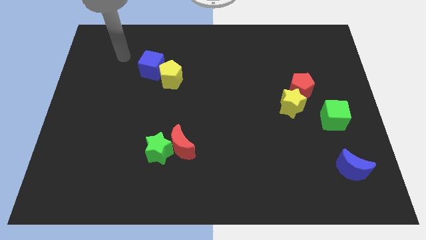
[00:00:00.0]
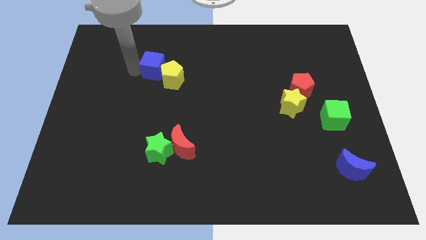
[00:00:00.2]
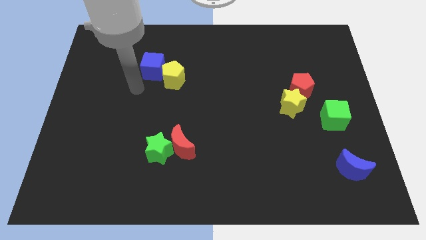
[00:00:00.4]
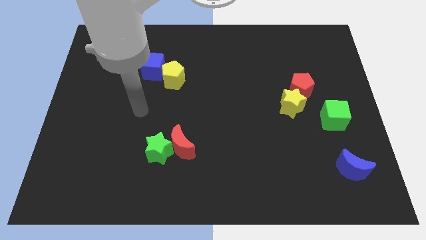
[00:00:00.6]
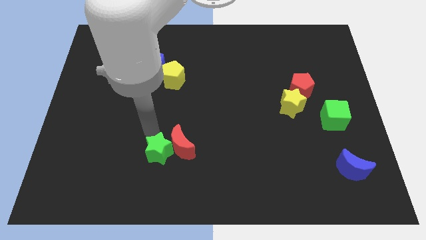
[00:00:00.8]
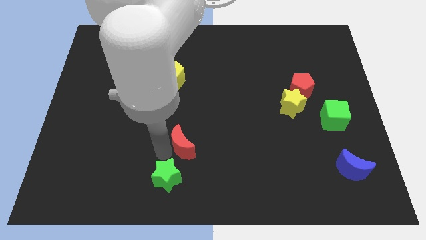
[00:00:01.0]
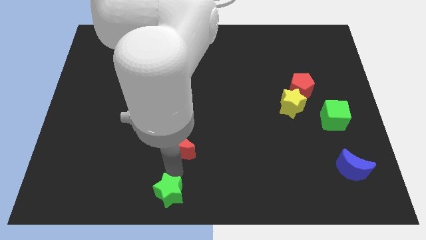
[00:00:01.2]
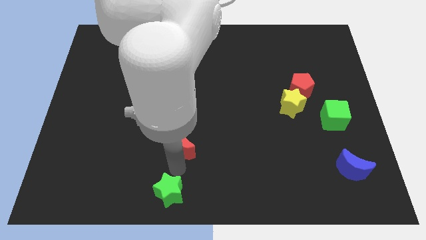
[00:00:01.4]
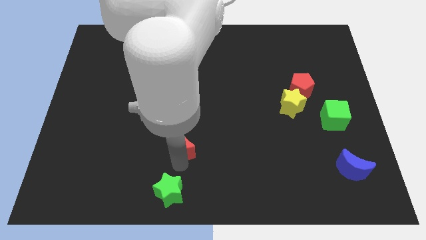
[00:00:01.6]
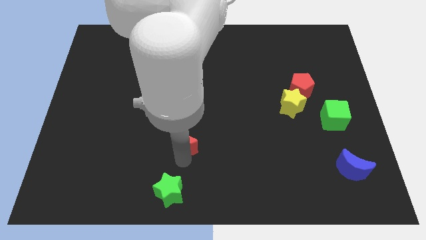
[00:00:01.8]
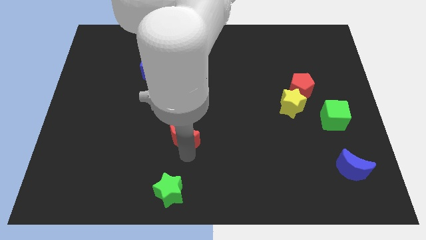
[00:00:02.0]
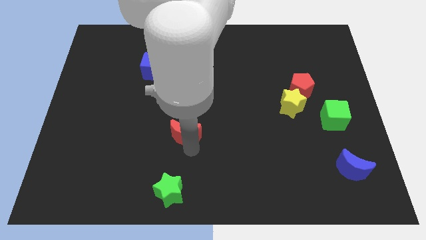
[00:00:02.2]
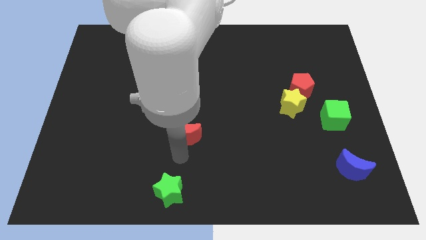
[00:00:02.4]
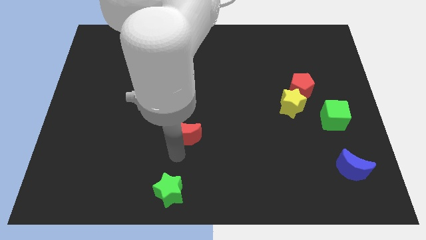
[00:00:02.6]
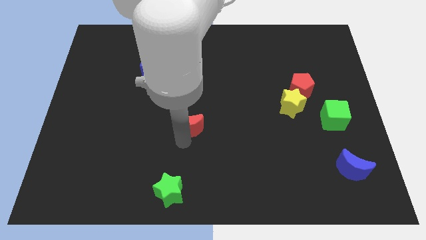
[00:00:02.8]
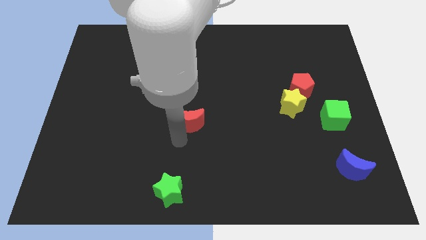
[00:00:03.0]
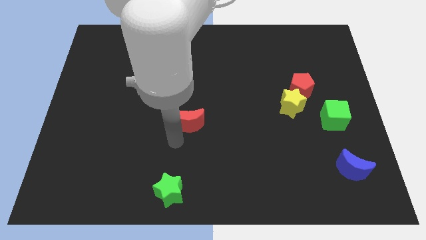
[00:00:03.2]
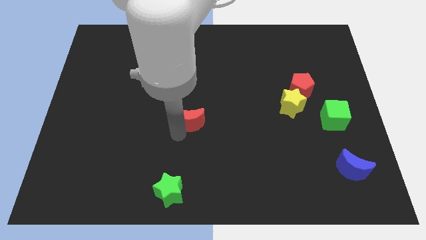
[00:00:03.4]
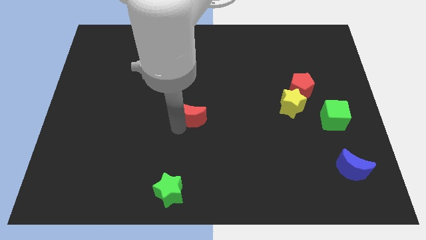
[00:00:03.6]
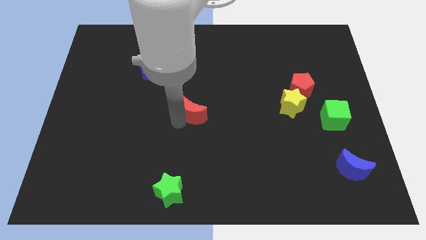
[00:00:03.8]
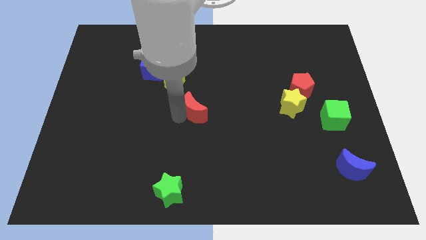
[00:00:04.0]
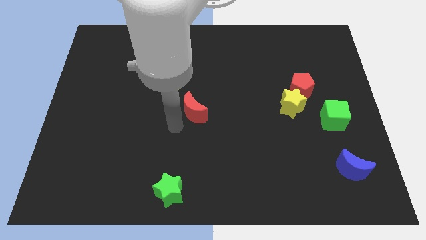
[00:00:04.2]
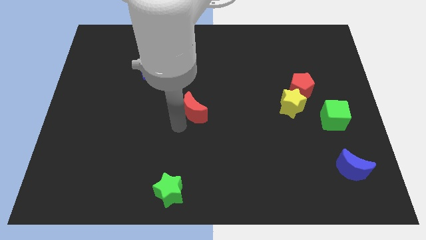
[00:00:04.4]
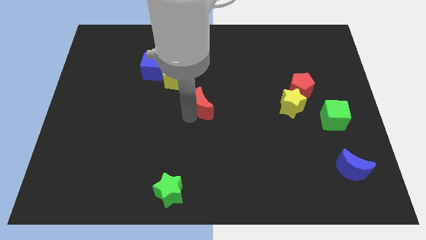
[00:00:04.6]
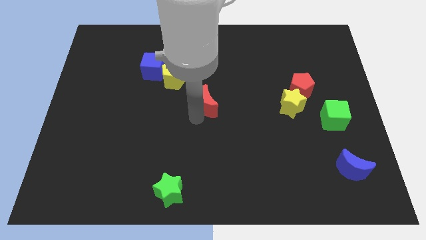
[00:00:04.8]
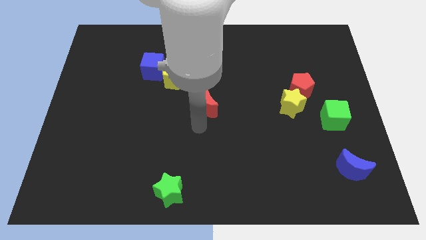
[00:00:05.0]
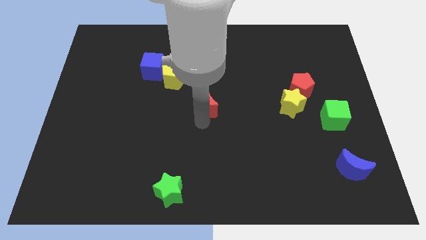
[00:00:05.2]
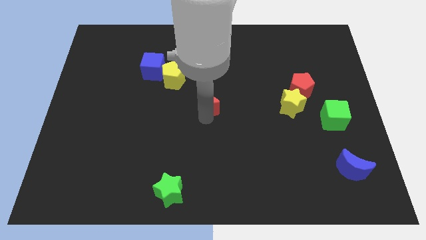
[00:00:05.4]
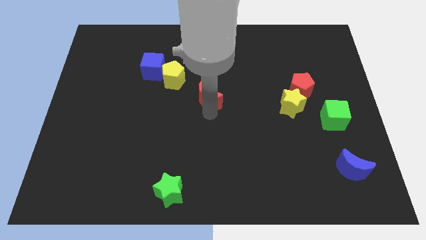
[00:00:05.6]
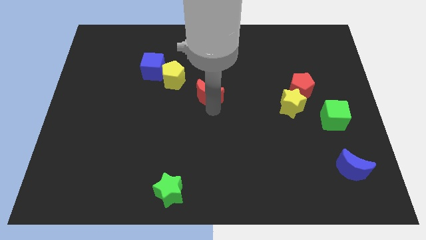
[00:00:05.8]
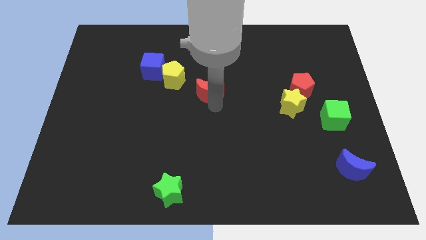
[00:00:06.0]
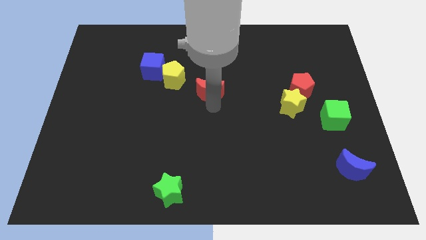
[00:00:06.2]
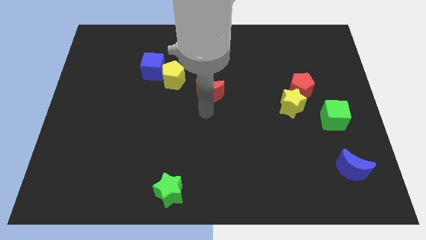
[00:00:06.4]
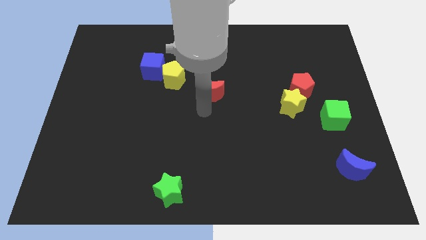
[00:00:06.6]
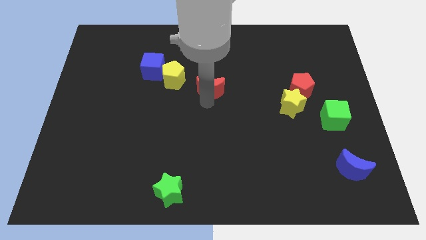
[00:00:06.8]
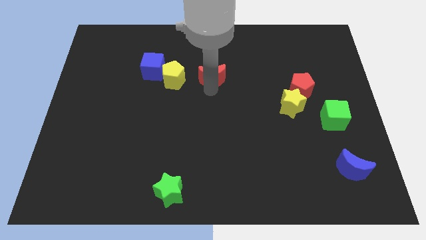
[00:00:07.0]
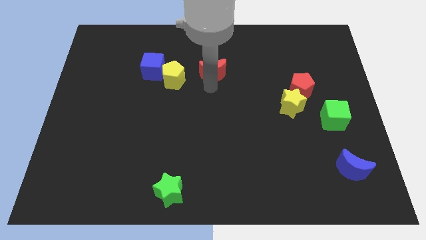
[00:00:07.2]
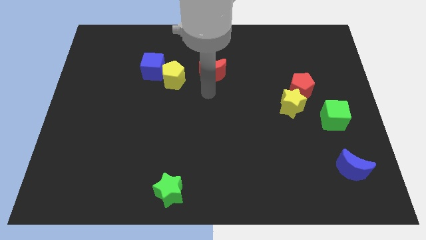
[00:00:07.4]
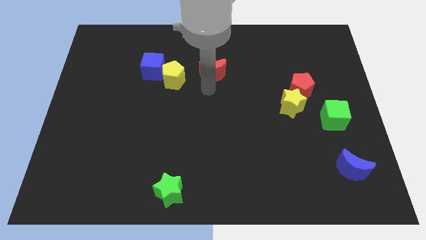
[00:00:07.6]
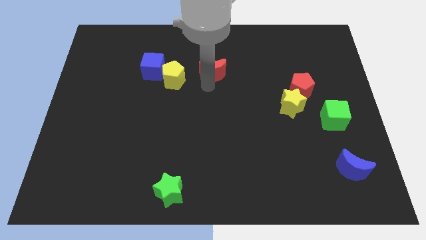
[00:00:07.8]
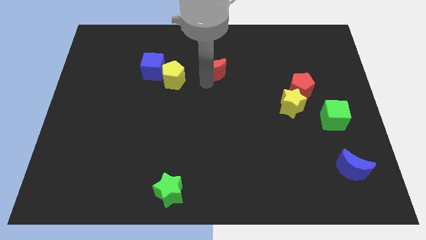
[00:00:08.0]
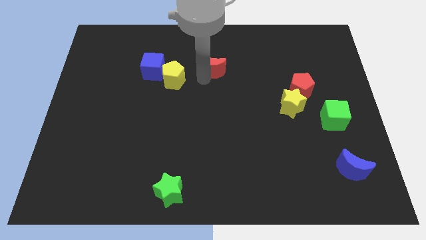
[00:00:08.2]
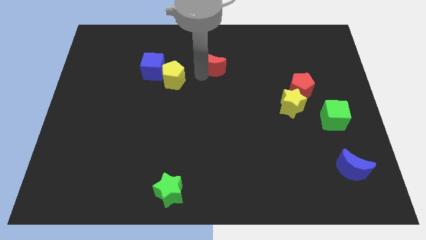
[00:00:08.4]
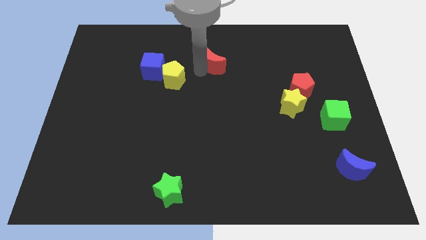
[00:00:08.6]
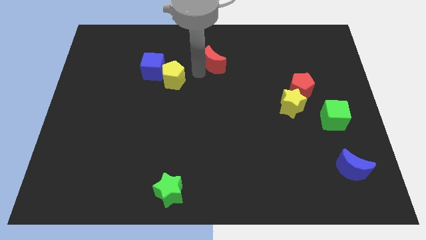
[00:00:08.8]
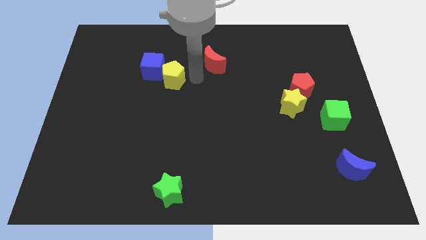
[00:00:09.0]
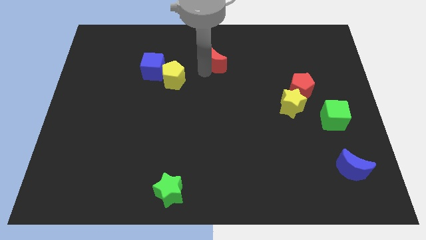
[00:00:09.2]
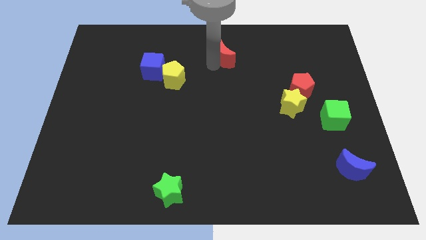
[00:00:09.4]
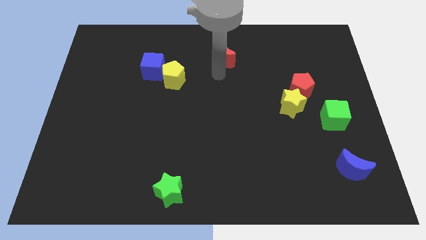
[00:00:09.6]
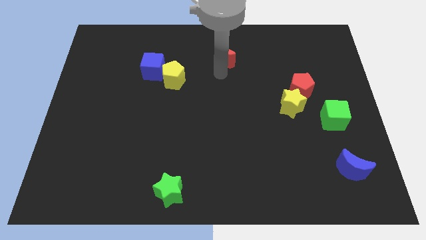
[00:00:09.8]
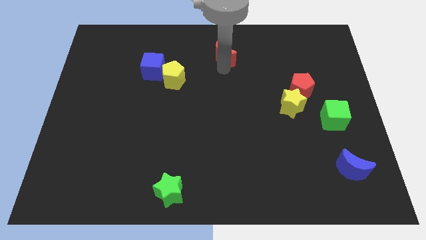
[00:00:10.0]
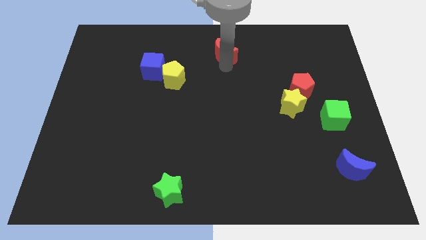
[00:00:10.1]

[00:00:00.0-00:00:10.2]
put the red moon to the top side

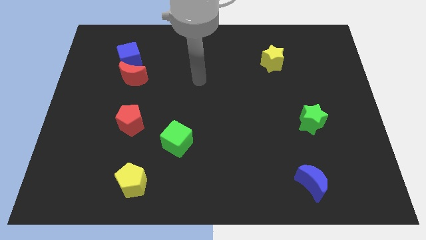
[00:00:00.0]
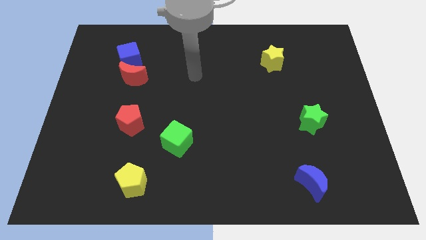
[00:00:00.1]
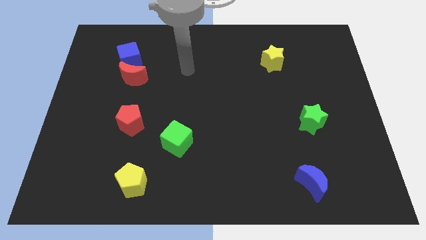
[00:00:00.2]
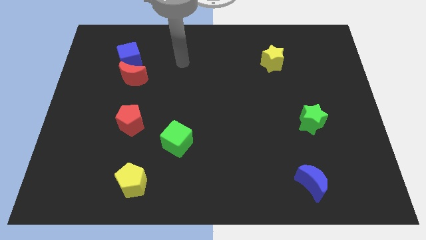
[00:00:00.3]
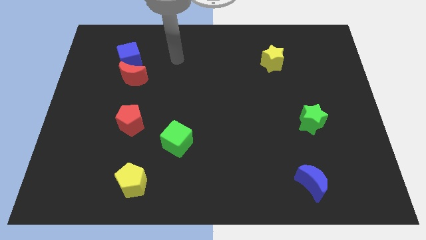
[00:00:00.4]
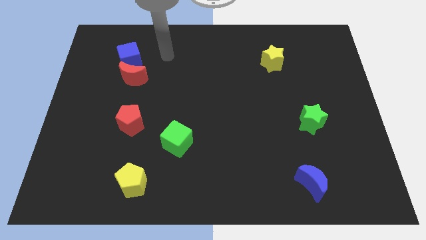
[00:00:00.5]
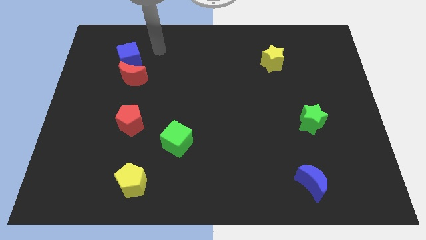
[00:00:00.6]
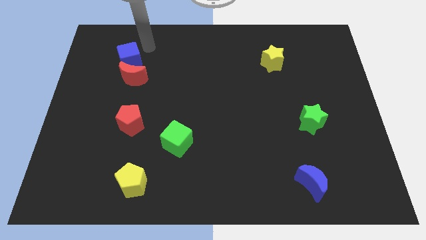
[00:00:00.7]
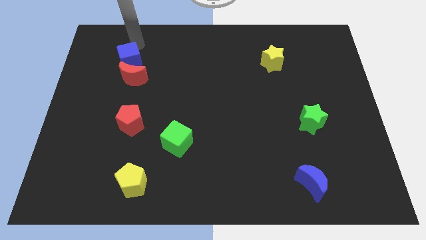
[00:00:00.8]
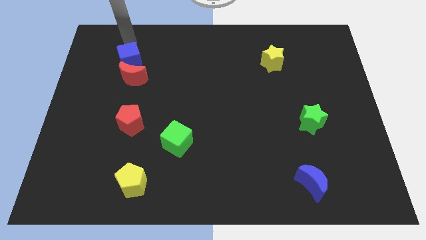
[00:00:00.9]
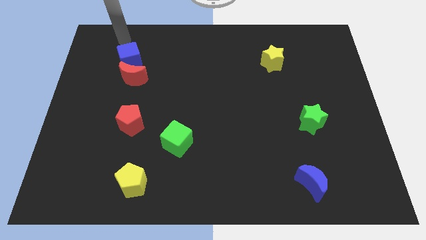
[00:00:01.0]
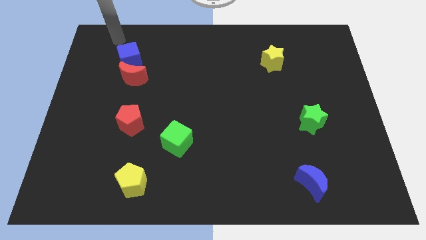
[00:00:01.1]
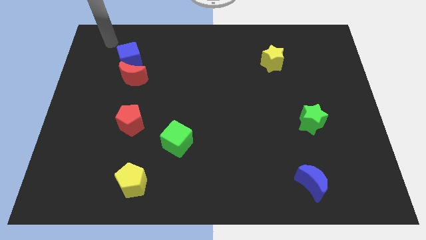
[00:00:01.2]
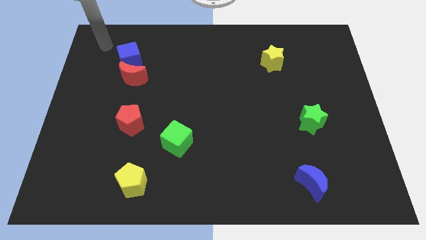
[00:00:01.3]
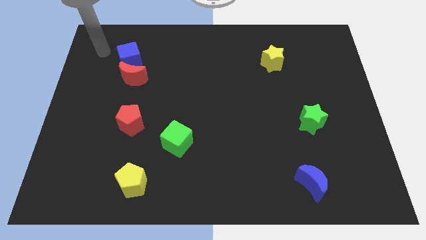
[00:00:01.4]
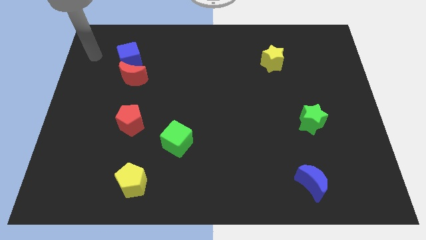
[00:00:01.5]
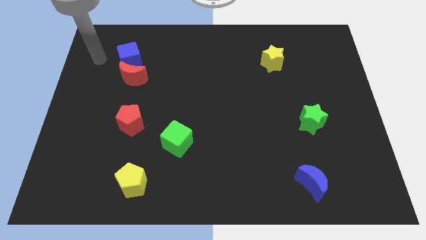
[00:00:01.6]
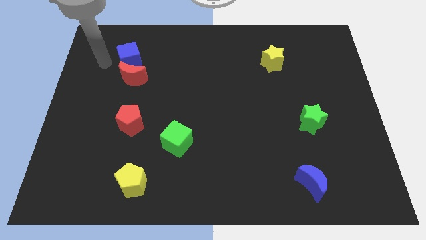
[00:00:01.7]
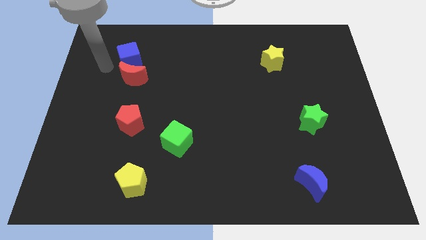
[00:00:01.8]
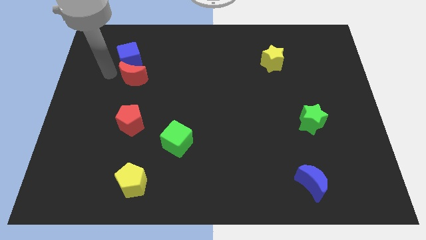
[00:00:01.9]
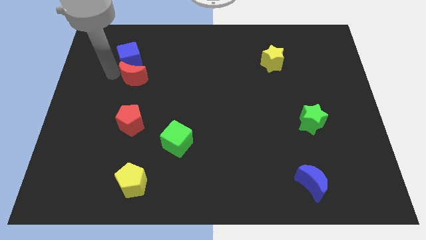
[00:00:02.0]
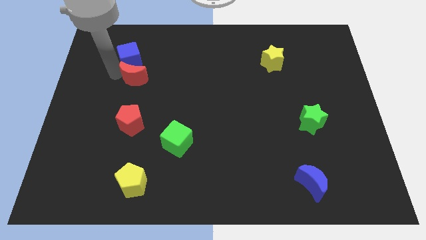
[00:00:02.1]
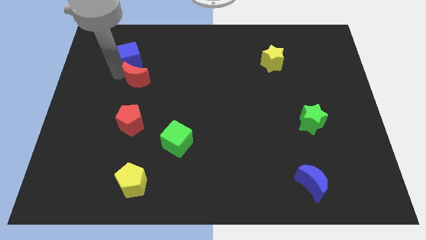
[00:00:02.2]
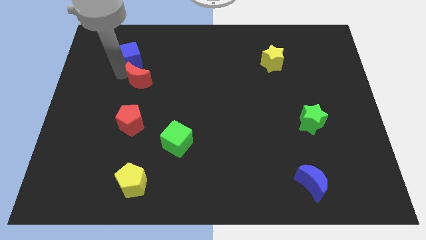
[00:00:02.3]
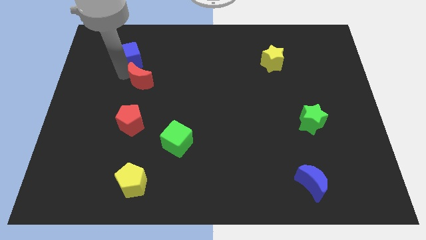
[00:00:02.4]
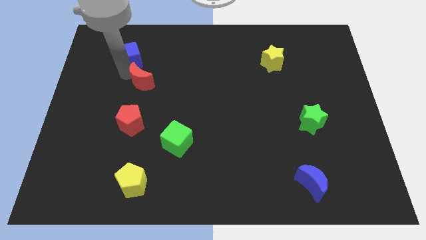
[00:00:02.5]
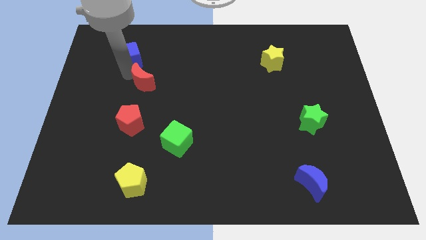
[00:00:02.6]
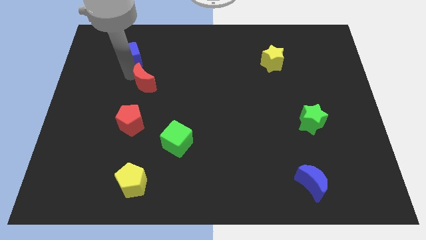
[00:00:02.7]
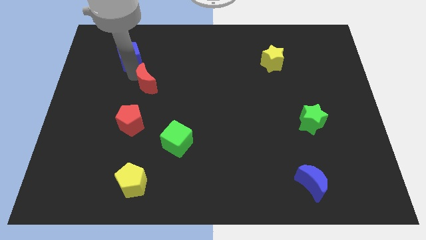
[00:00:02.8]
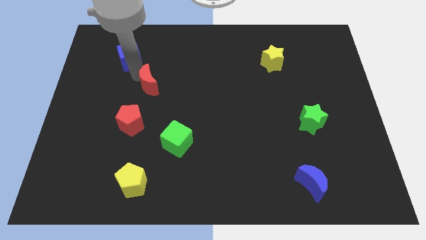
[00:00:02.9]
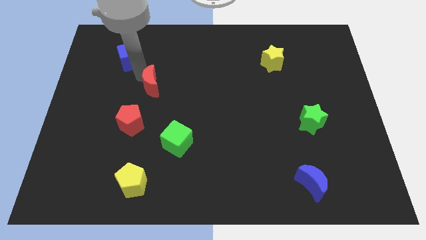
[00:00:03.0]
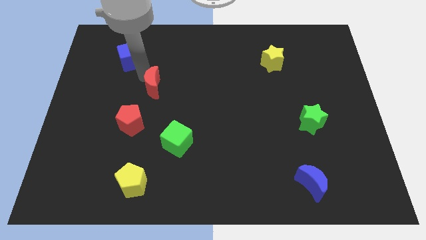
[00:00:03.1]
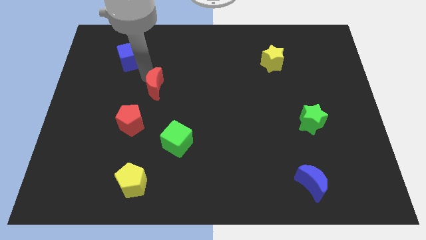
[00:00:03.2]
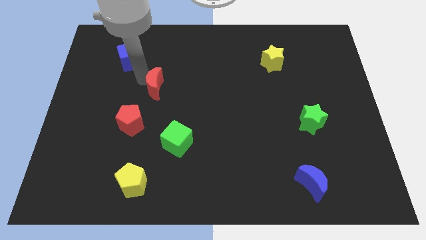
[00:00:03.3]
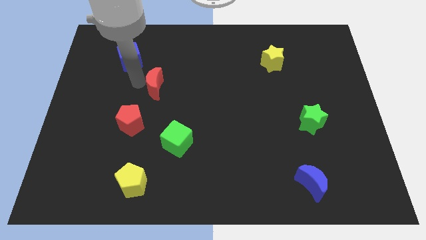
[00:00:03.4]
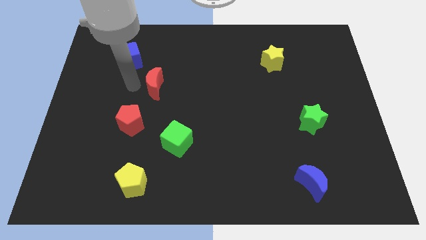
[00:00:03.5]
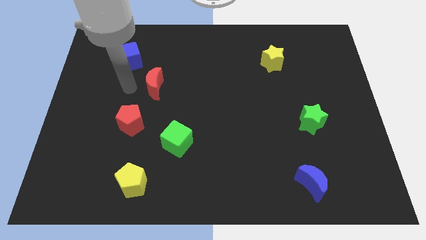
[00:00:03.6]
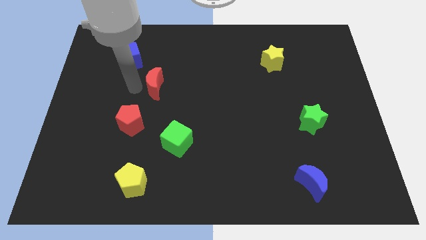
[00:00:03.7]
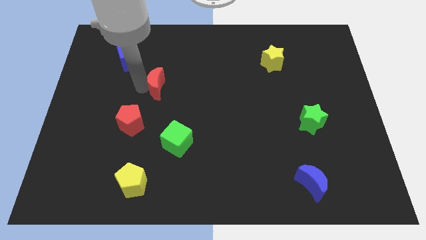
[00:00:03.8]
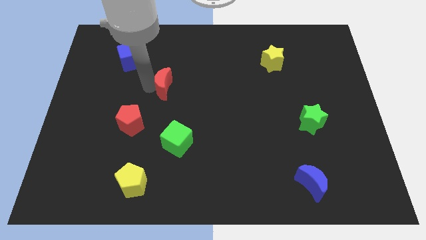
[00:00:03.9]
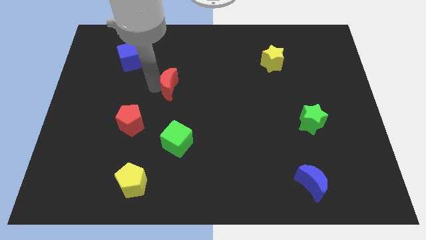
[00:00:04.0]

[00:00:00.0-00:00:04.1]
slide the red moon to the middle of the board
